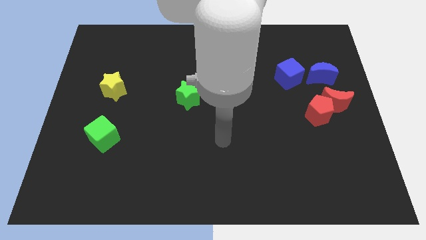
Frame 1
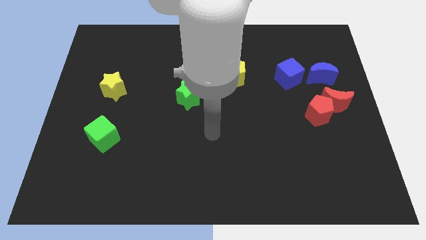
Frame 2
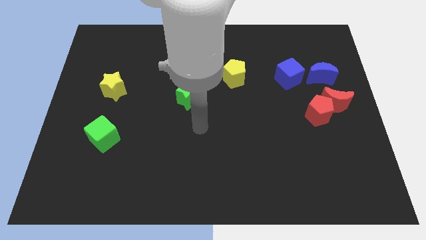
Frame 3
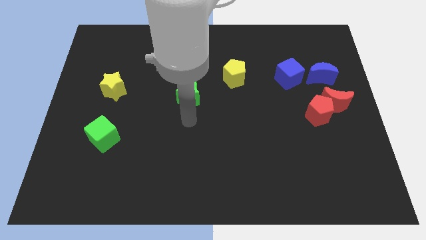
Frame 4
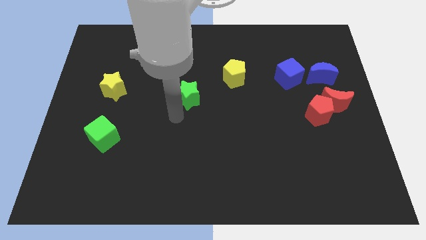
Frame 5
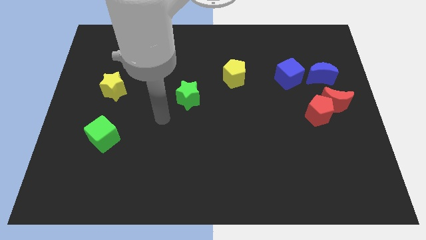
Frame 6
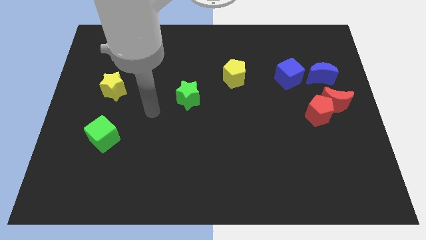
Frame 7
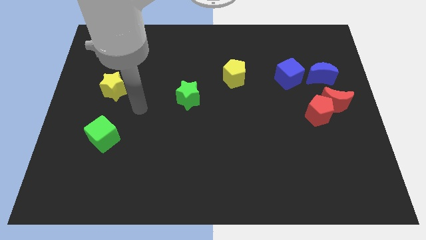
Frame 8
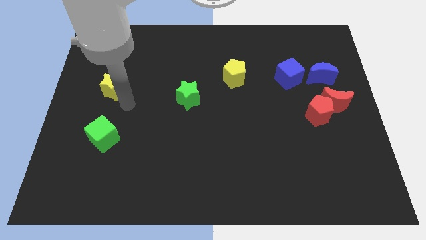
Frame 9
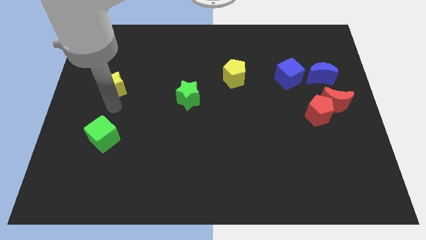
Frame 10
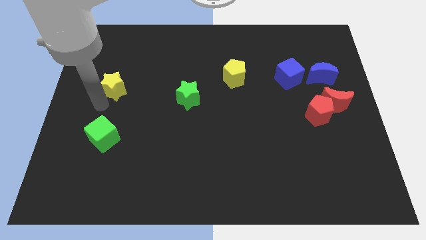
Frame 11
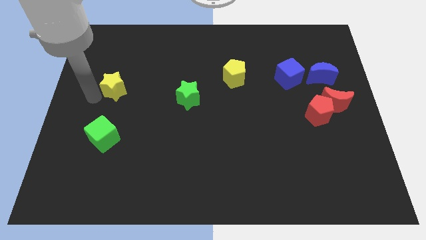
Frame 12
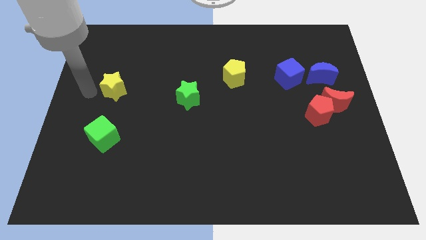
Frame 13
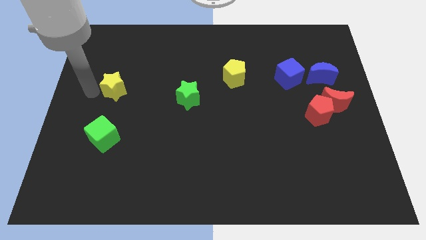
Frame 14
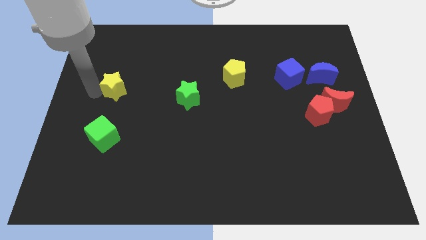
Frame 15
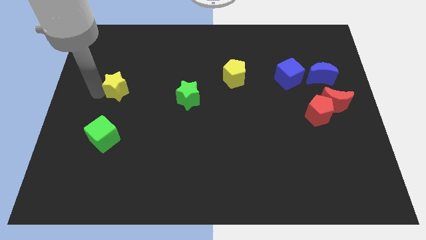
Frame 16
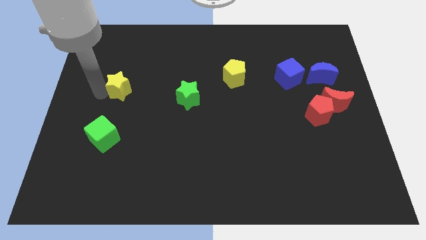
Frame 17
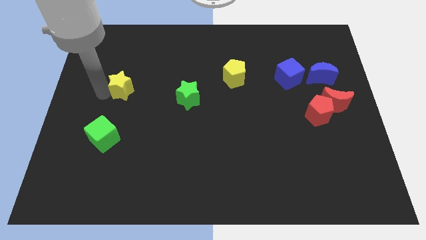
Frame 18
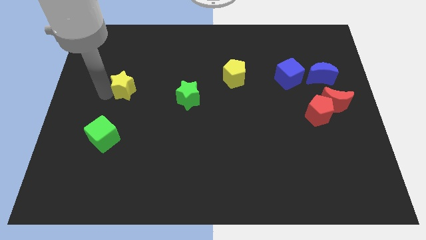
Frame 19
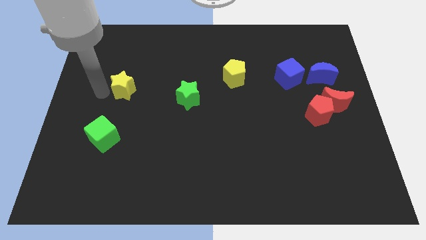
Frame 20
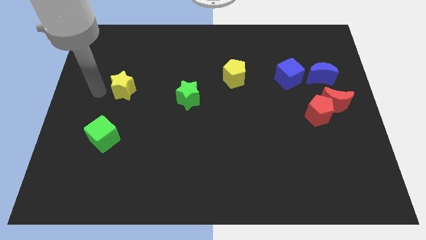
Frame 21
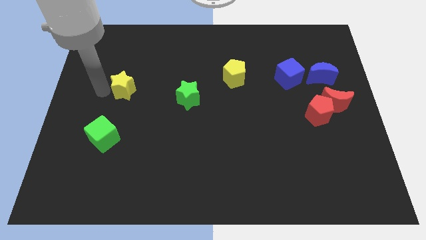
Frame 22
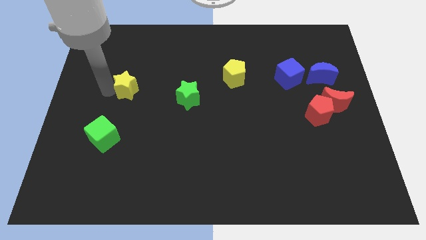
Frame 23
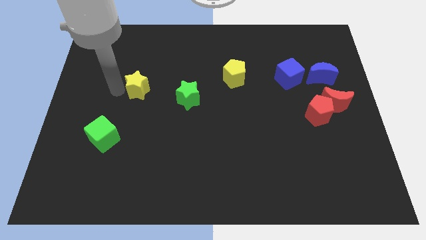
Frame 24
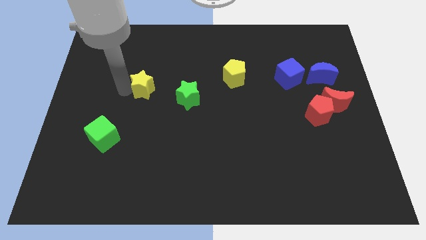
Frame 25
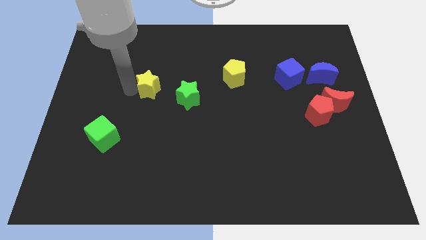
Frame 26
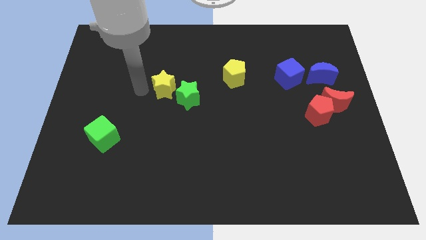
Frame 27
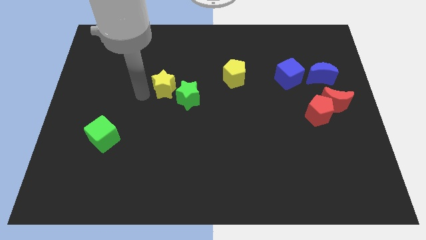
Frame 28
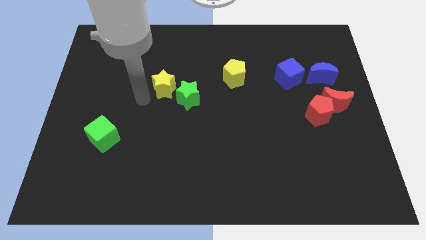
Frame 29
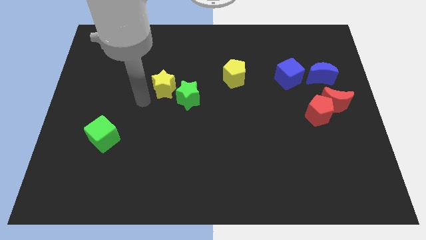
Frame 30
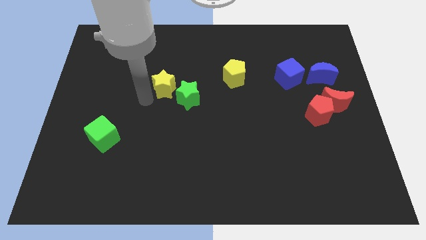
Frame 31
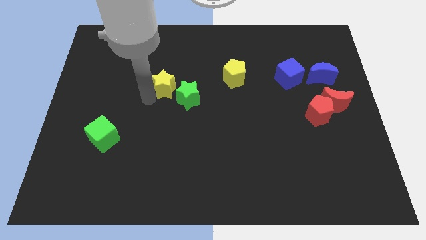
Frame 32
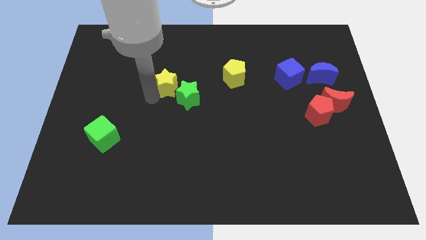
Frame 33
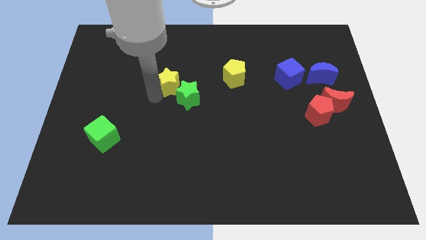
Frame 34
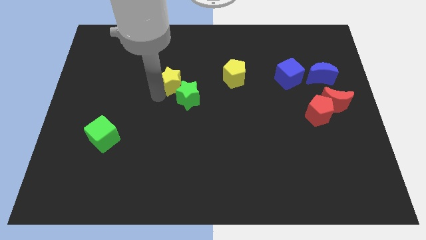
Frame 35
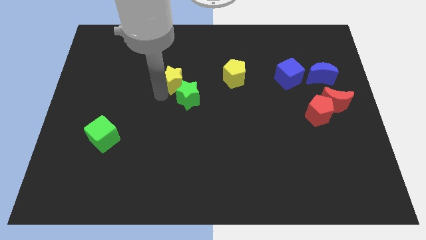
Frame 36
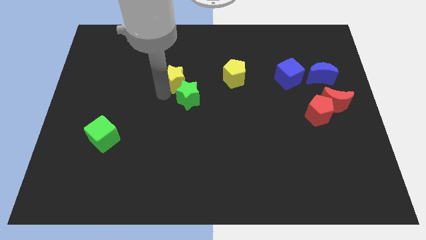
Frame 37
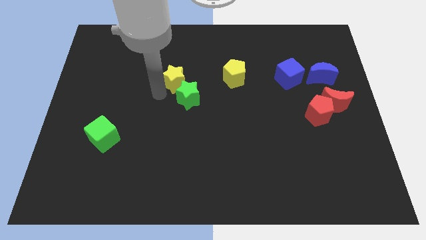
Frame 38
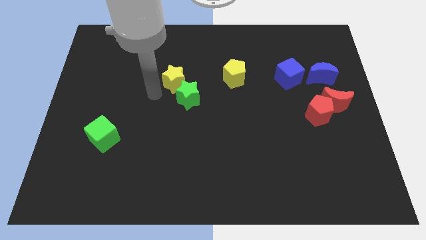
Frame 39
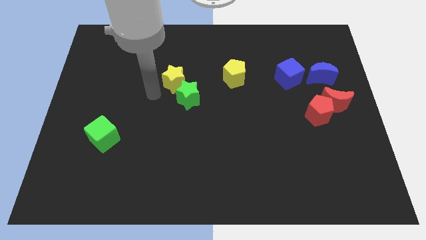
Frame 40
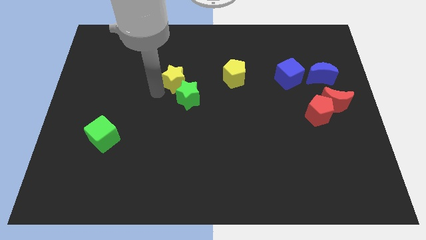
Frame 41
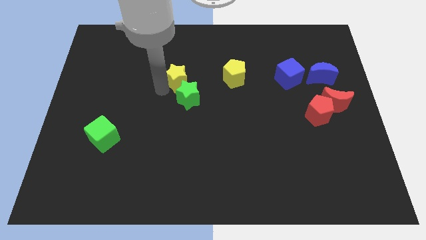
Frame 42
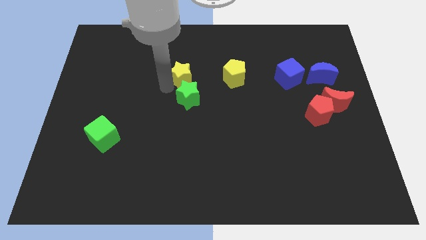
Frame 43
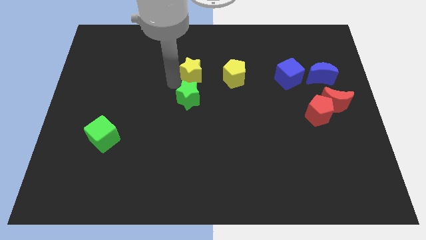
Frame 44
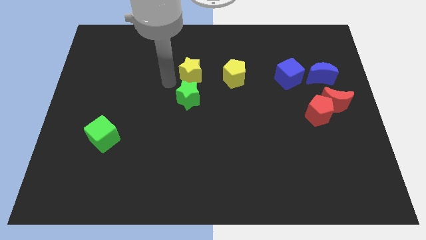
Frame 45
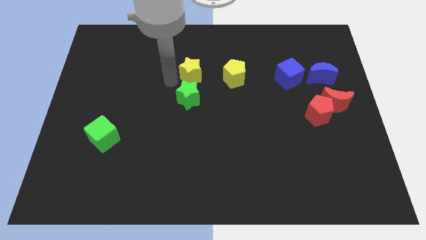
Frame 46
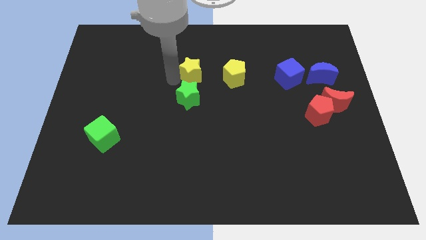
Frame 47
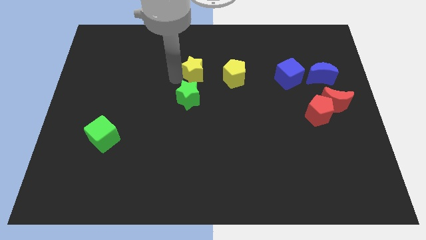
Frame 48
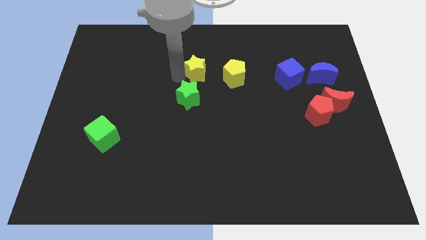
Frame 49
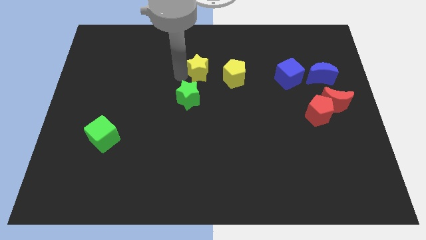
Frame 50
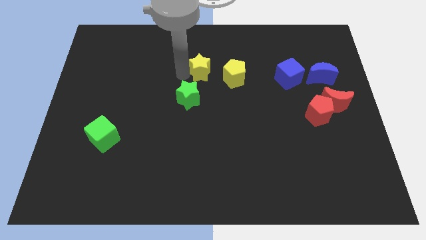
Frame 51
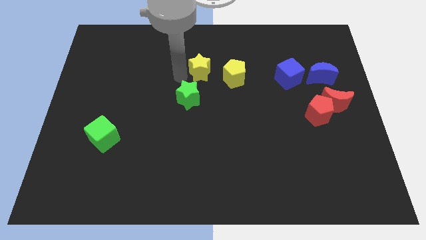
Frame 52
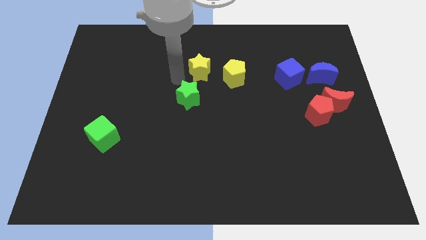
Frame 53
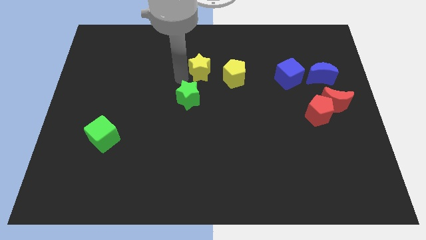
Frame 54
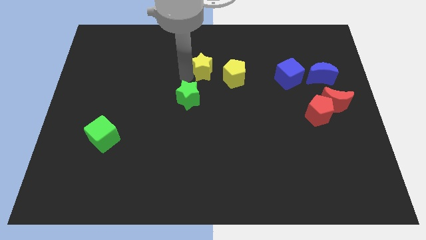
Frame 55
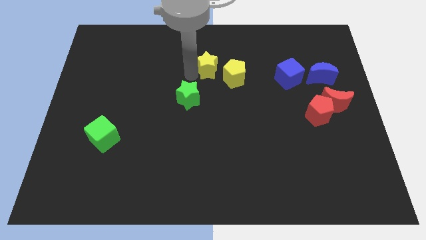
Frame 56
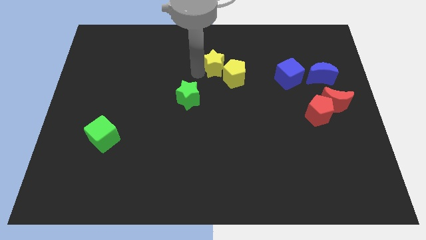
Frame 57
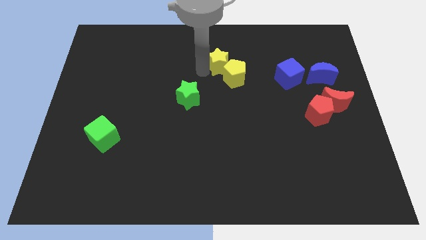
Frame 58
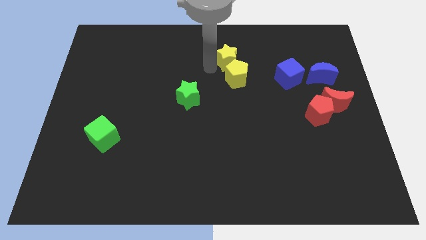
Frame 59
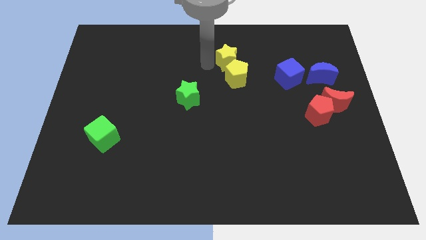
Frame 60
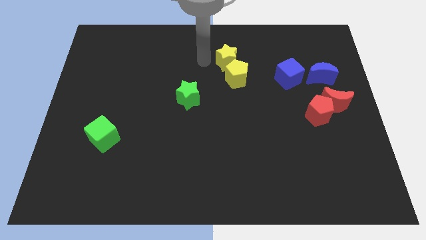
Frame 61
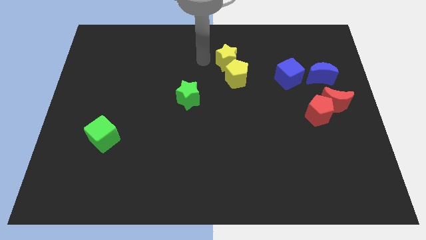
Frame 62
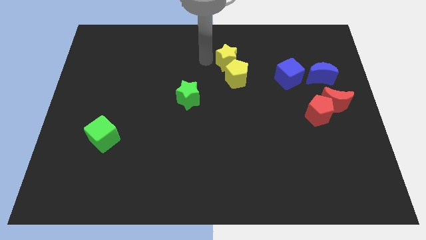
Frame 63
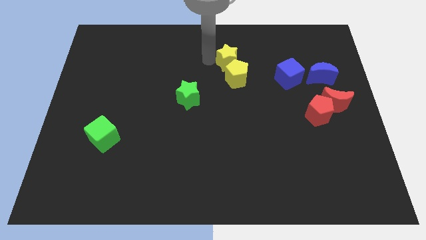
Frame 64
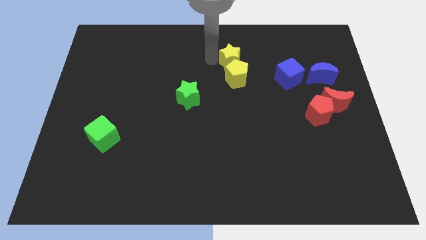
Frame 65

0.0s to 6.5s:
slide the yellow star to the top right of the yellow pentagon

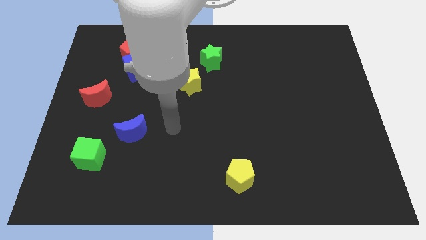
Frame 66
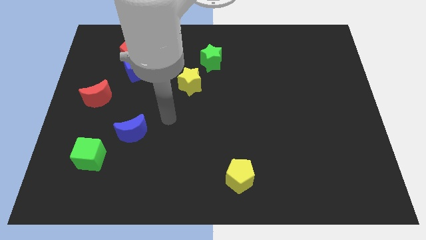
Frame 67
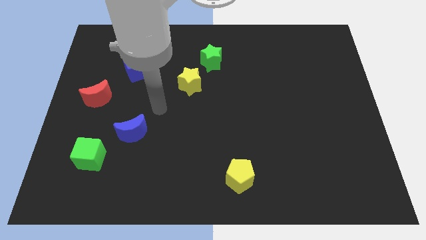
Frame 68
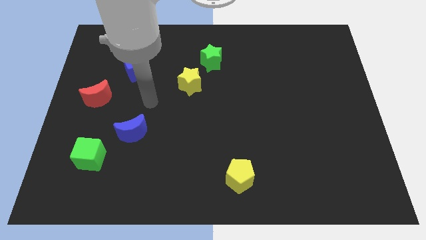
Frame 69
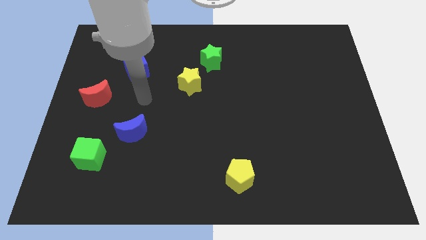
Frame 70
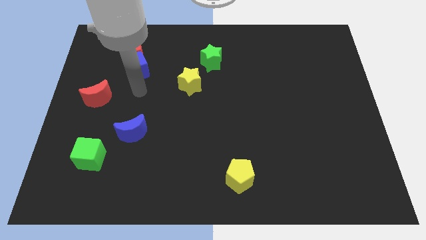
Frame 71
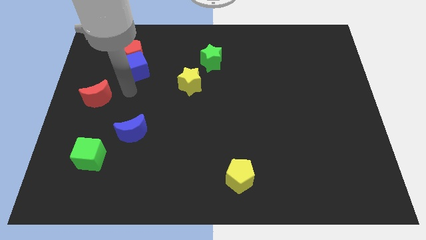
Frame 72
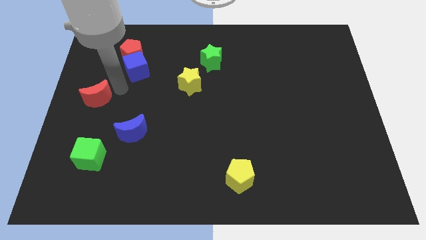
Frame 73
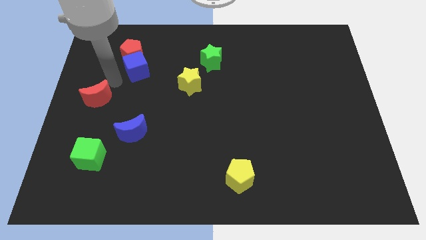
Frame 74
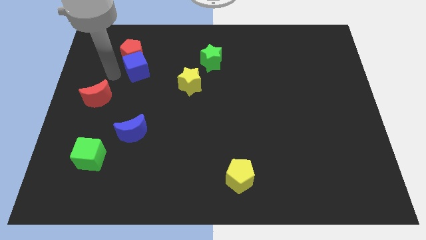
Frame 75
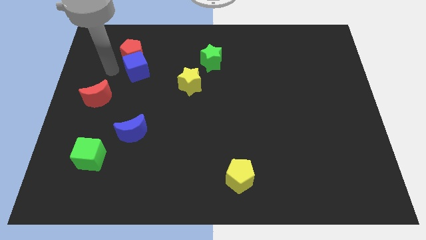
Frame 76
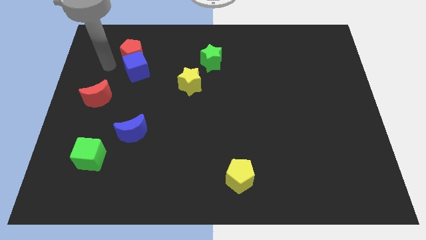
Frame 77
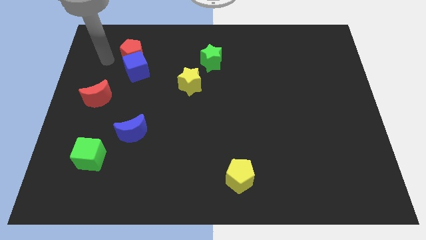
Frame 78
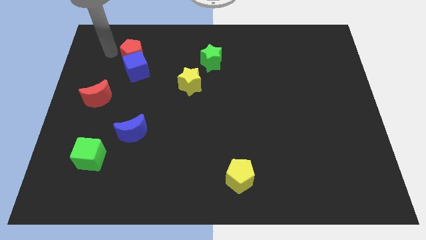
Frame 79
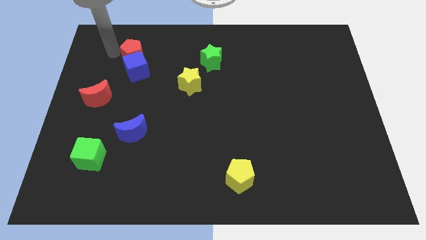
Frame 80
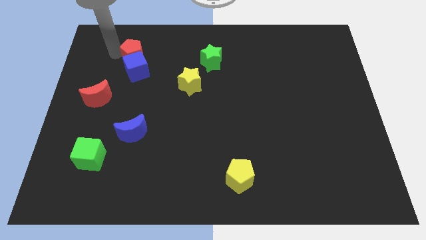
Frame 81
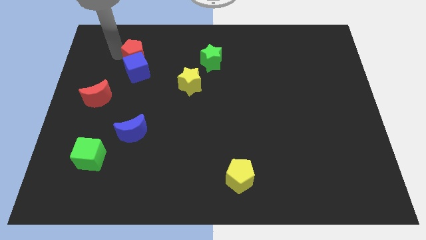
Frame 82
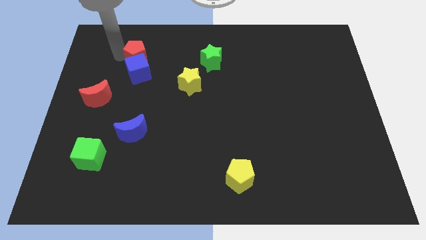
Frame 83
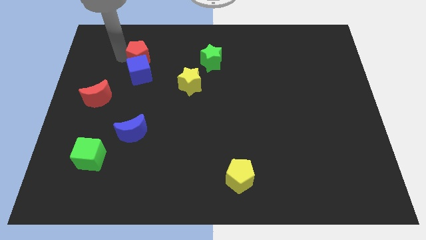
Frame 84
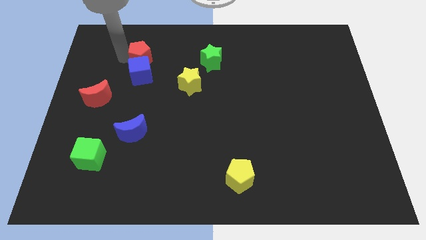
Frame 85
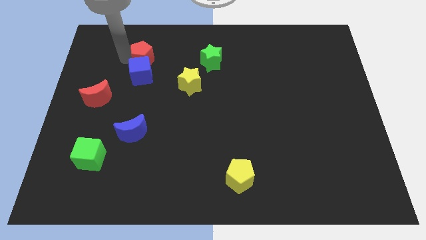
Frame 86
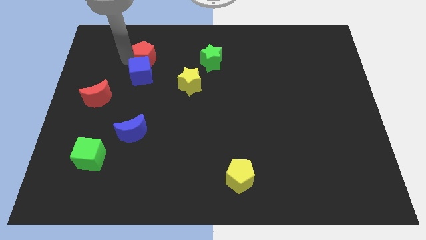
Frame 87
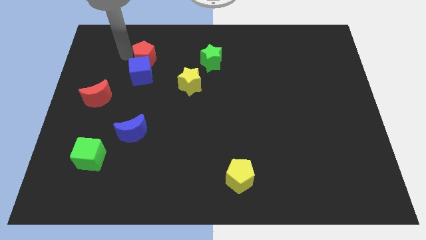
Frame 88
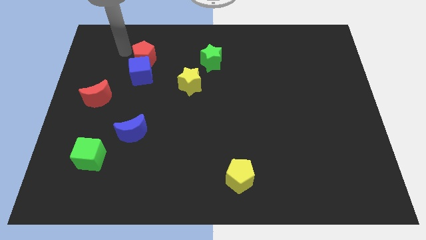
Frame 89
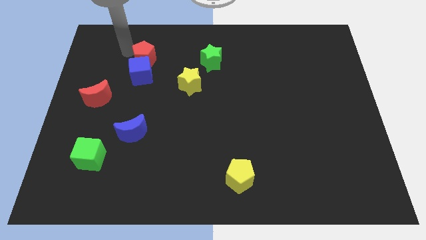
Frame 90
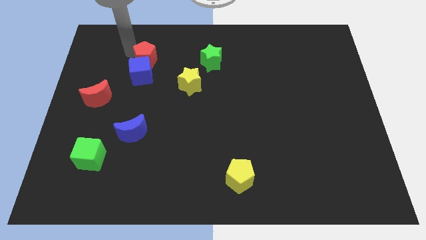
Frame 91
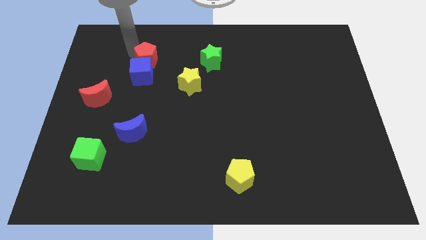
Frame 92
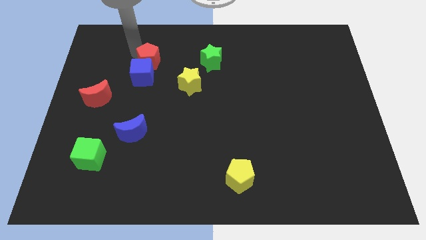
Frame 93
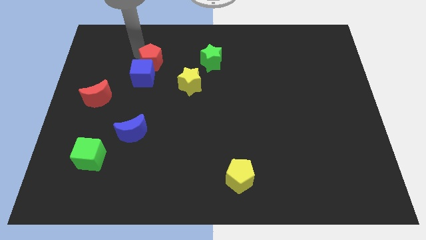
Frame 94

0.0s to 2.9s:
put the red pentagon to the top left side of the yellow star
